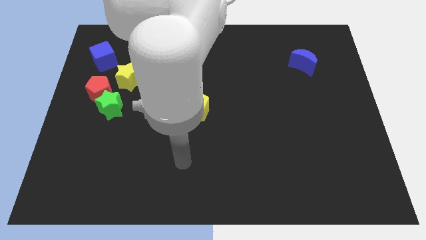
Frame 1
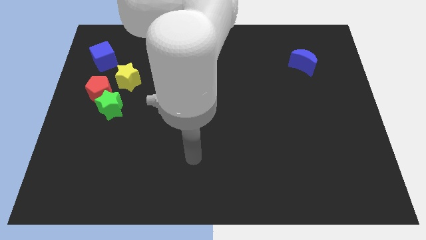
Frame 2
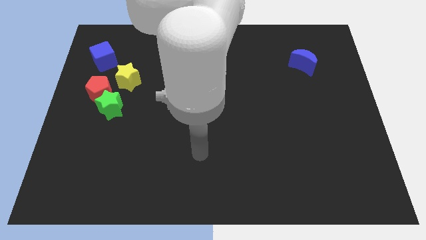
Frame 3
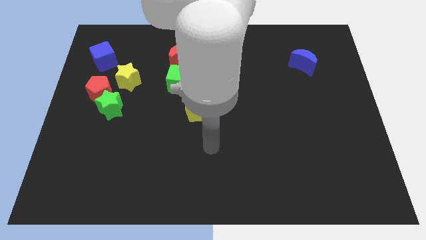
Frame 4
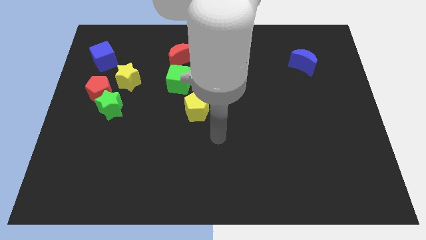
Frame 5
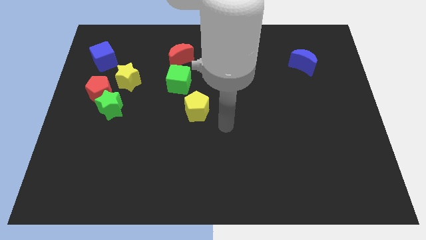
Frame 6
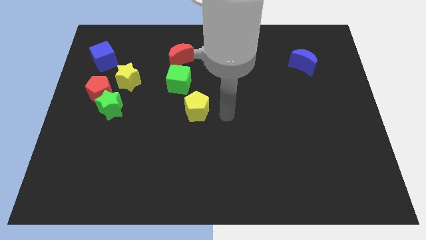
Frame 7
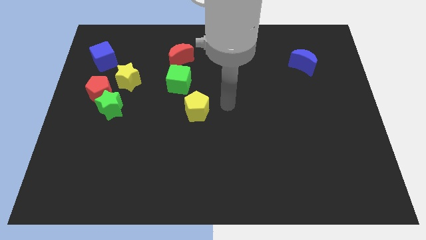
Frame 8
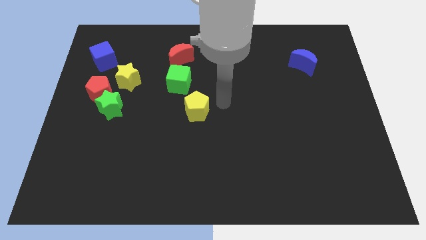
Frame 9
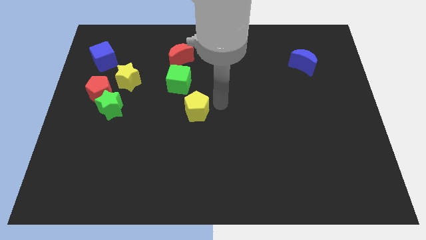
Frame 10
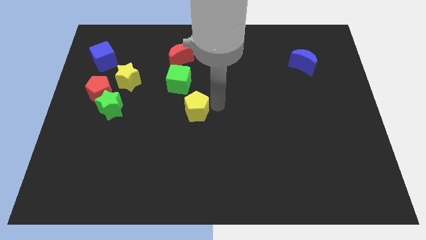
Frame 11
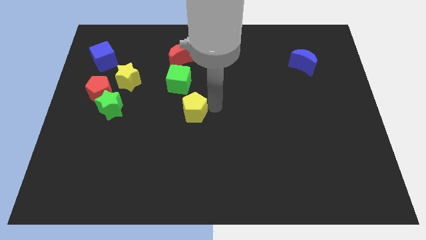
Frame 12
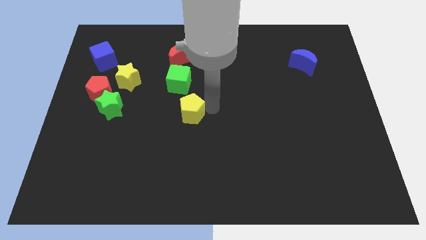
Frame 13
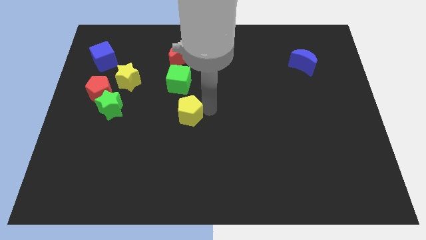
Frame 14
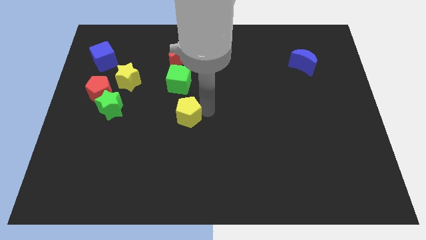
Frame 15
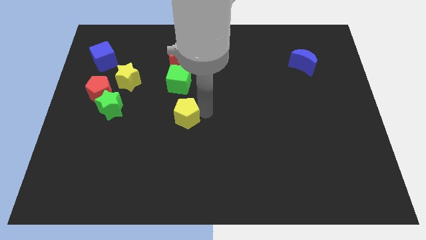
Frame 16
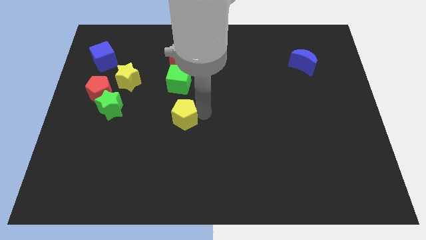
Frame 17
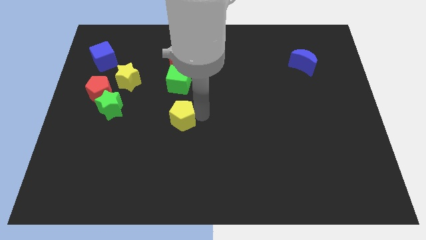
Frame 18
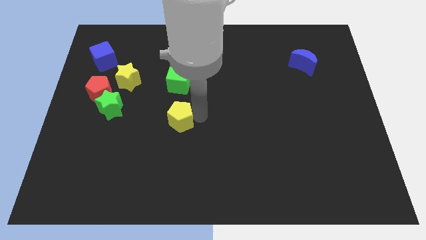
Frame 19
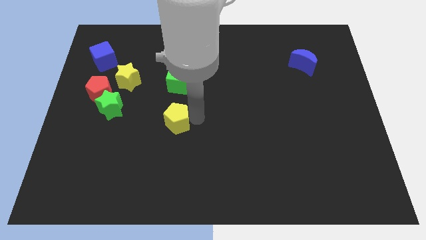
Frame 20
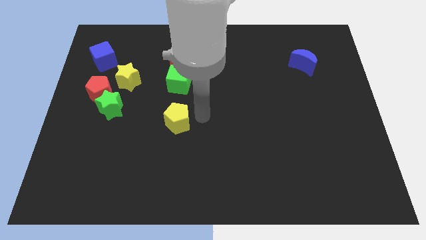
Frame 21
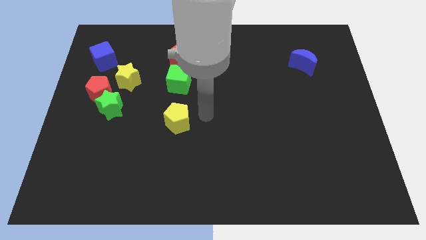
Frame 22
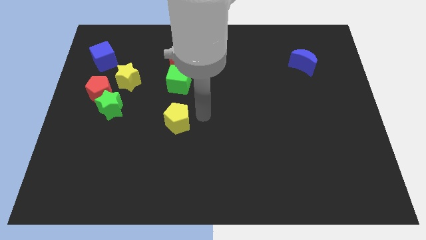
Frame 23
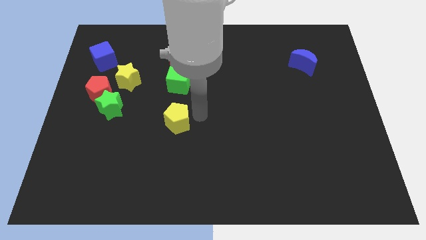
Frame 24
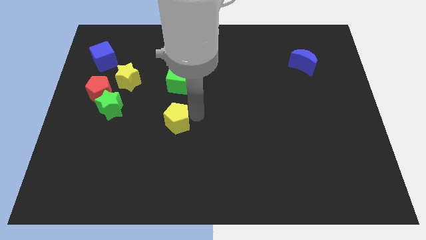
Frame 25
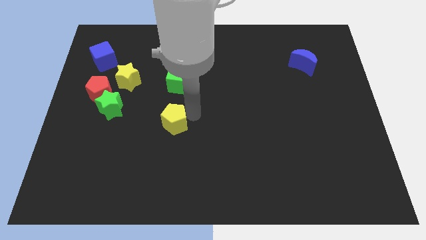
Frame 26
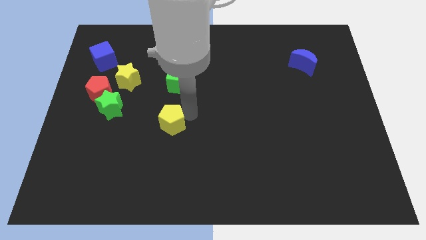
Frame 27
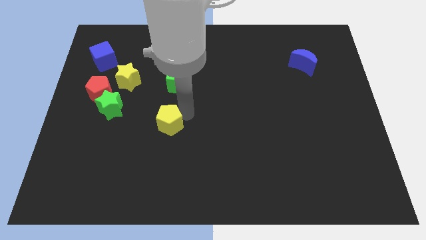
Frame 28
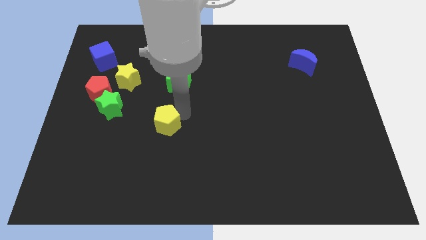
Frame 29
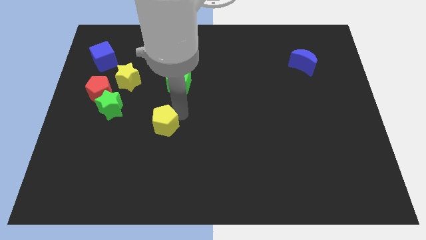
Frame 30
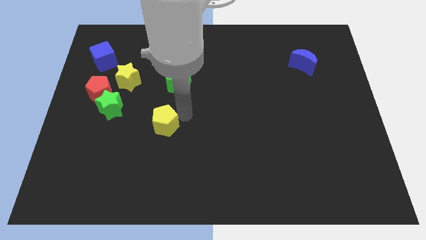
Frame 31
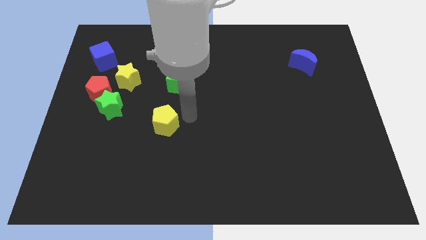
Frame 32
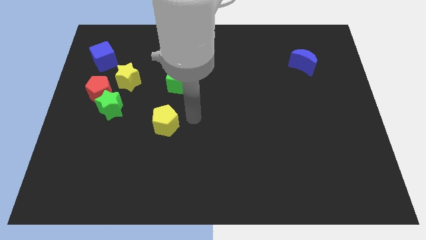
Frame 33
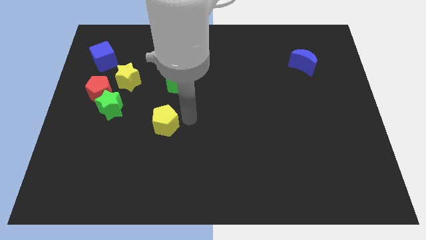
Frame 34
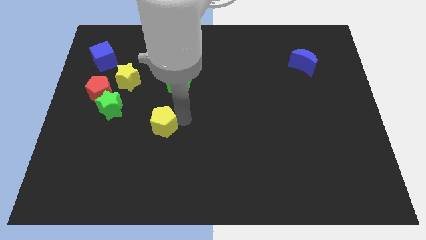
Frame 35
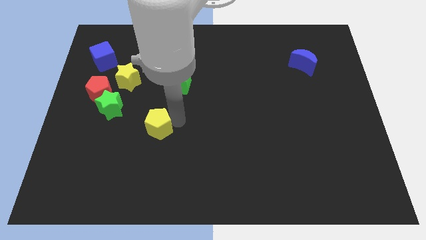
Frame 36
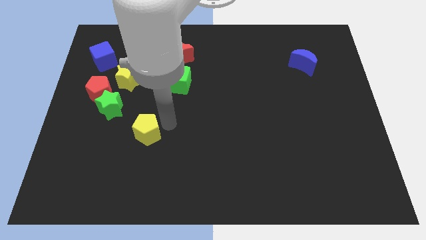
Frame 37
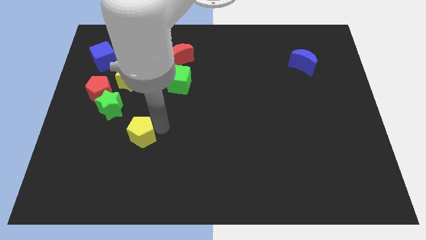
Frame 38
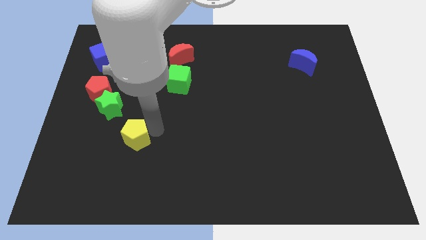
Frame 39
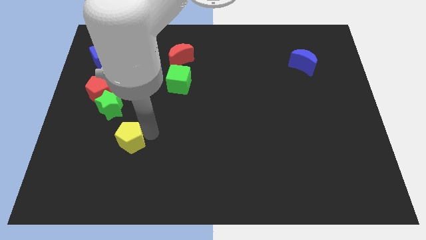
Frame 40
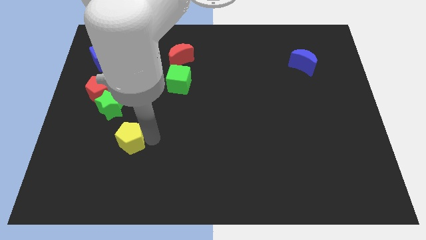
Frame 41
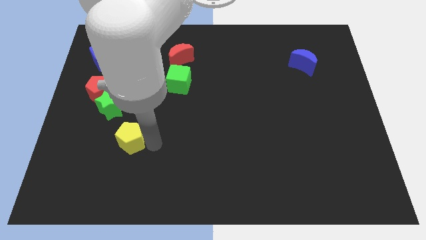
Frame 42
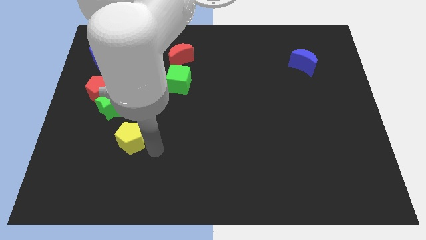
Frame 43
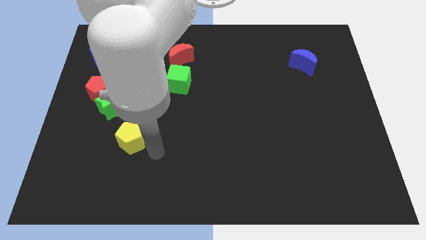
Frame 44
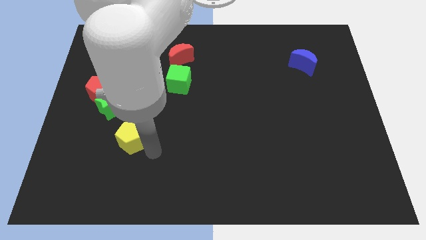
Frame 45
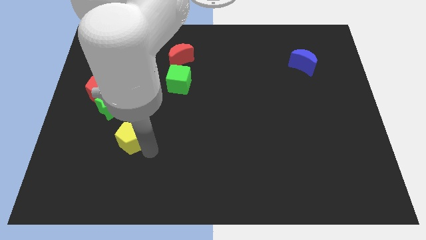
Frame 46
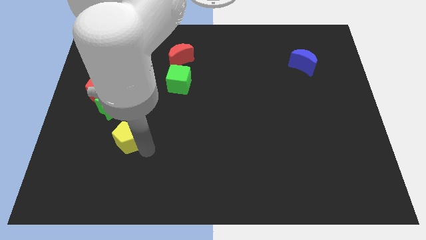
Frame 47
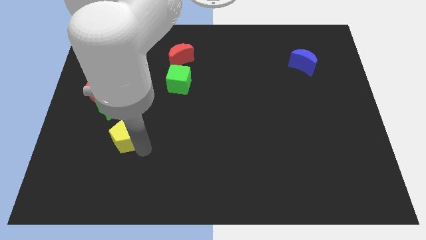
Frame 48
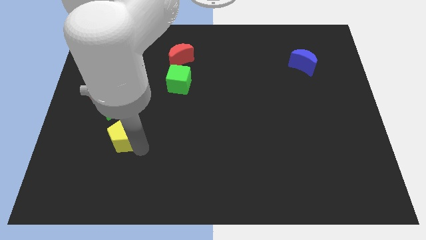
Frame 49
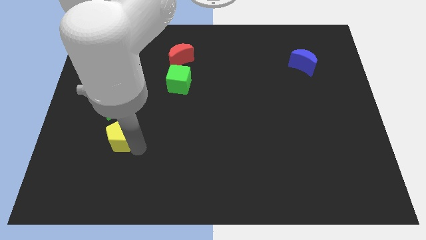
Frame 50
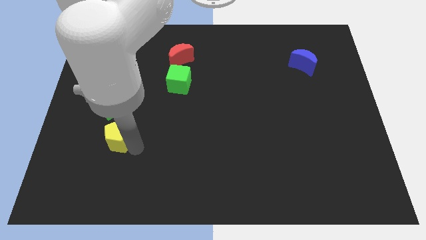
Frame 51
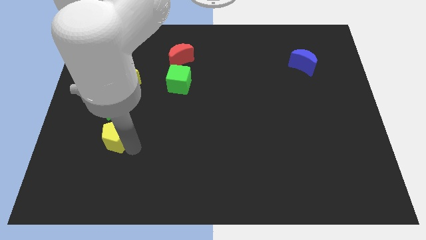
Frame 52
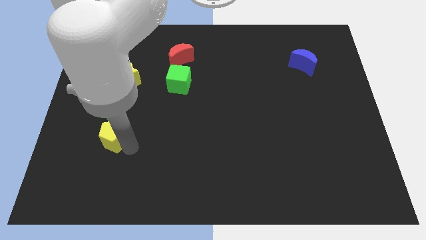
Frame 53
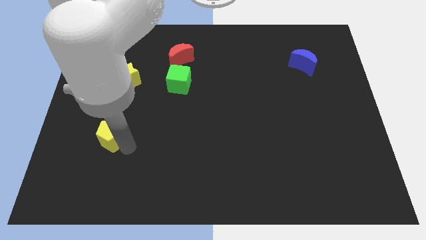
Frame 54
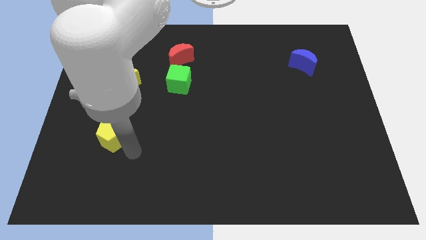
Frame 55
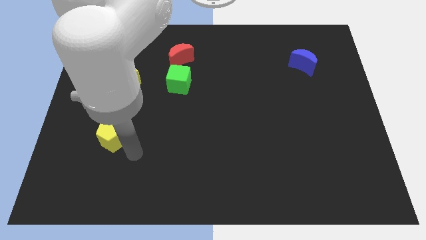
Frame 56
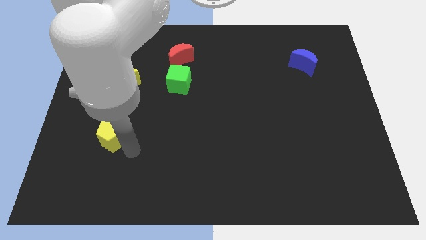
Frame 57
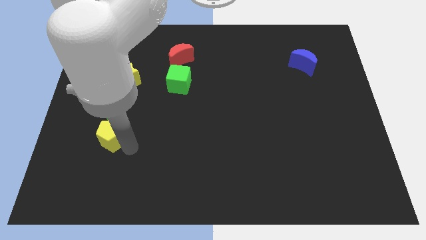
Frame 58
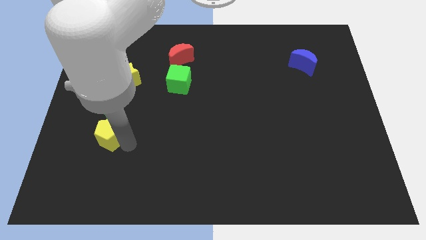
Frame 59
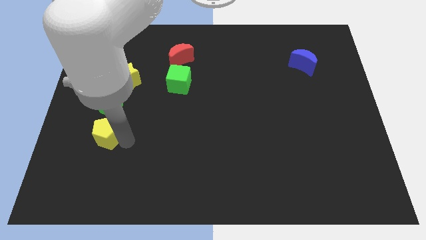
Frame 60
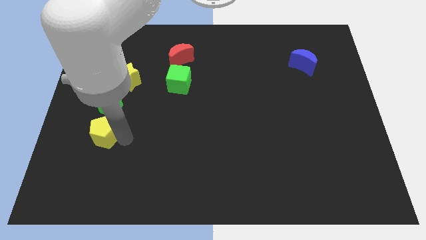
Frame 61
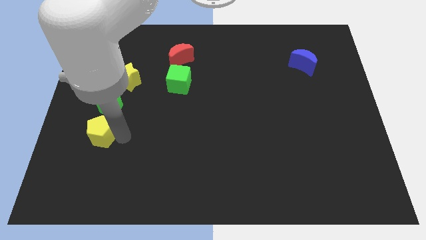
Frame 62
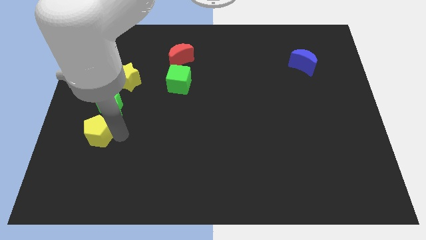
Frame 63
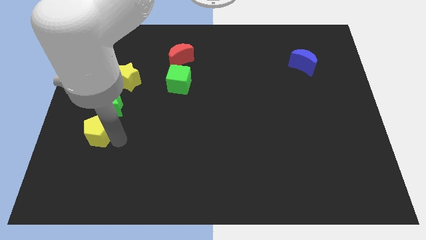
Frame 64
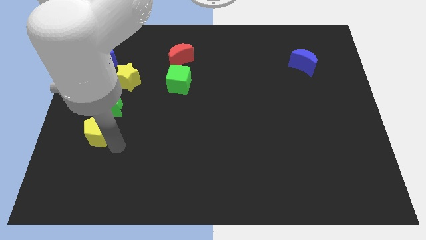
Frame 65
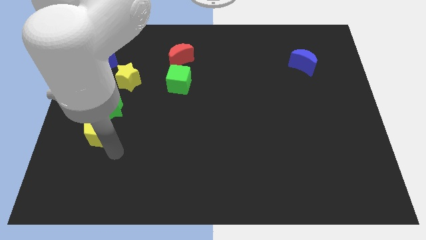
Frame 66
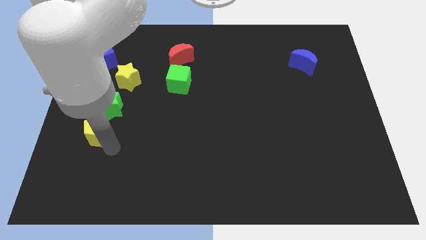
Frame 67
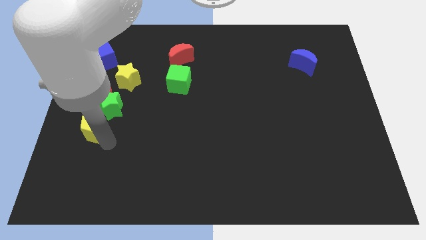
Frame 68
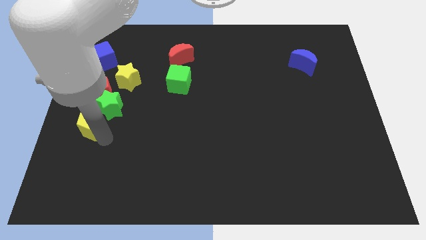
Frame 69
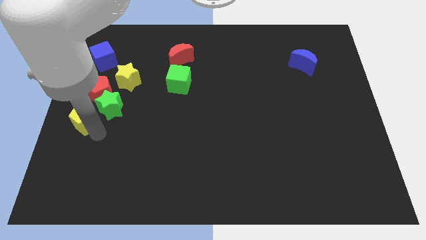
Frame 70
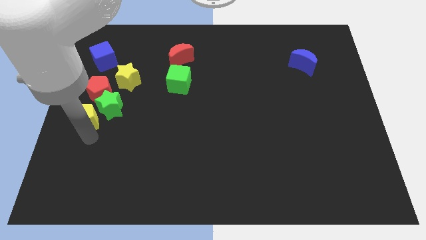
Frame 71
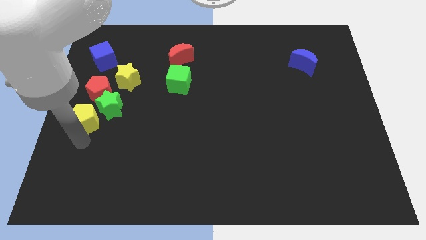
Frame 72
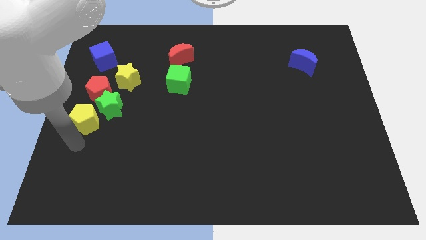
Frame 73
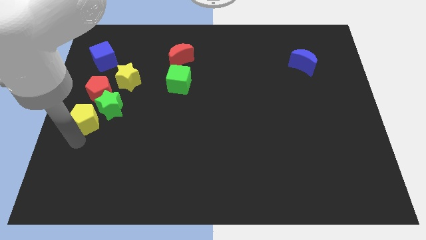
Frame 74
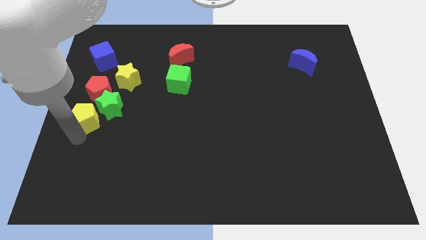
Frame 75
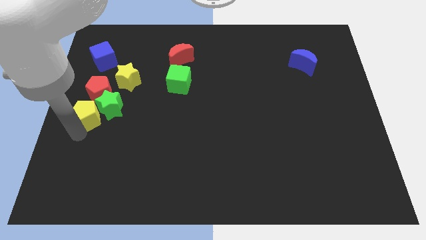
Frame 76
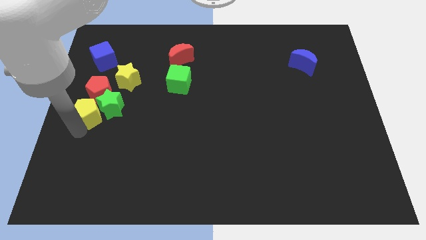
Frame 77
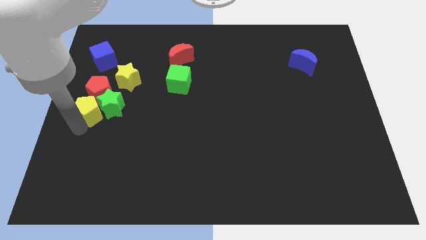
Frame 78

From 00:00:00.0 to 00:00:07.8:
push the yellow pentagon to the red pentagon
